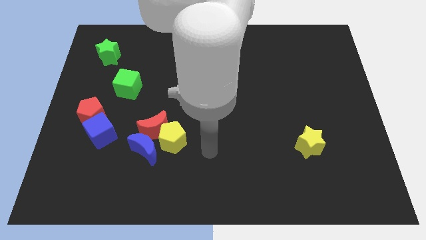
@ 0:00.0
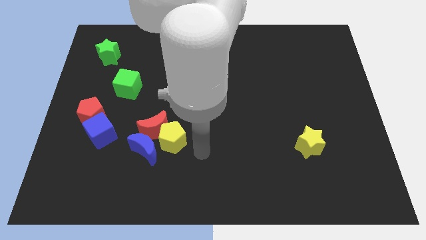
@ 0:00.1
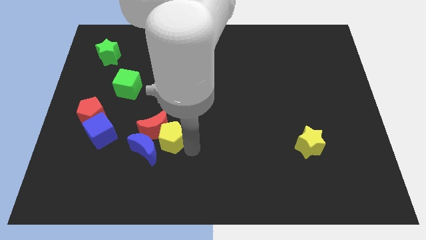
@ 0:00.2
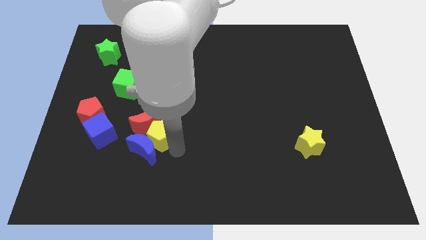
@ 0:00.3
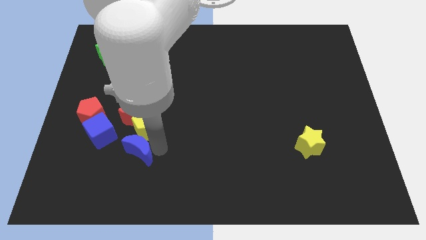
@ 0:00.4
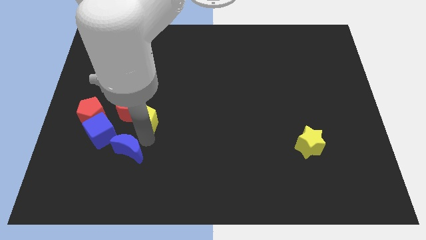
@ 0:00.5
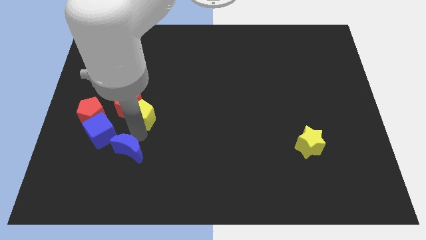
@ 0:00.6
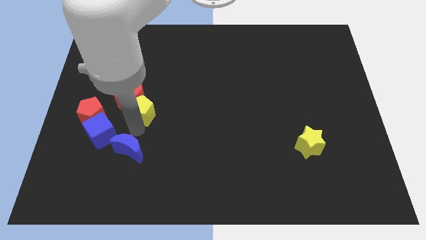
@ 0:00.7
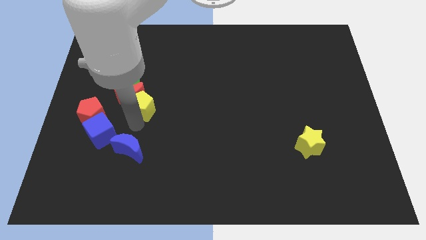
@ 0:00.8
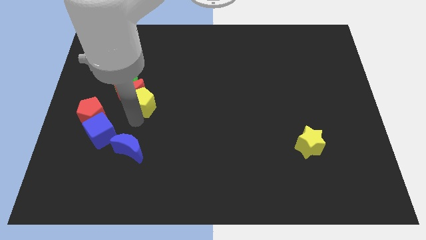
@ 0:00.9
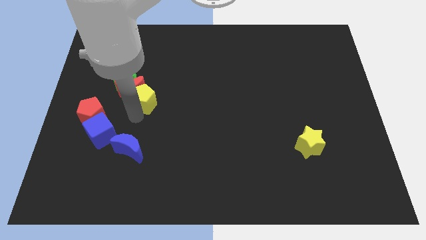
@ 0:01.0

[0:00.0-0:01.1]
pull the red moon apart from the yellow pentagon and blue moon

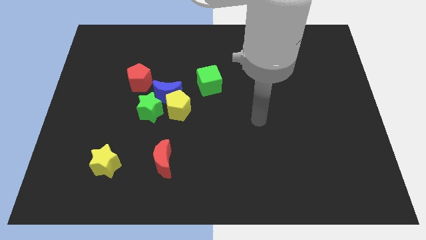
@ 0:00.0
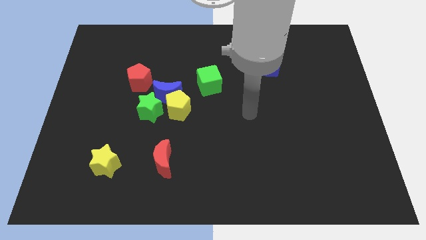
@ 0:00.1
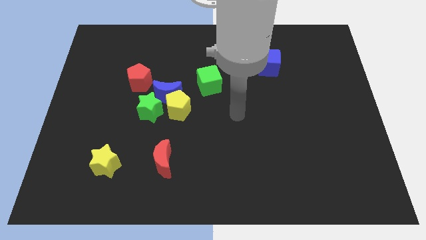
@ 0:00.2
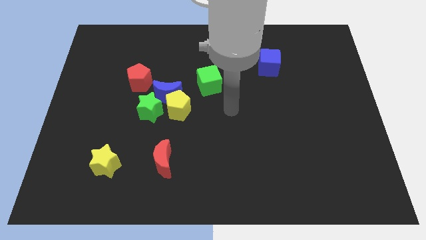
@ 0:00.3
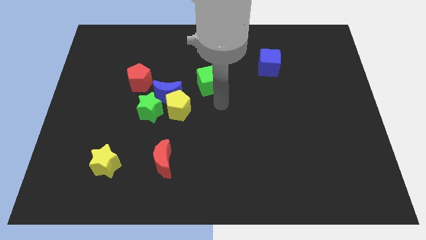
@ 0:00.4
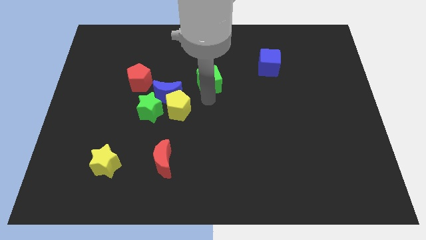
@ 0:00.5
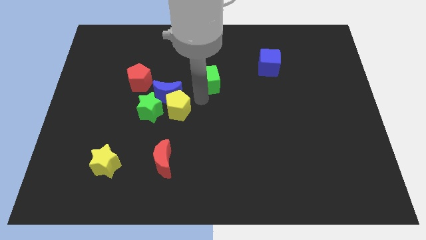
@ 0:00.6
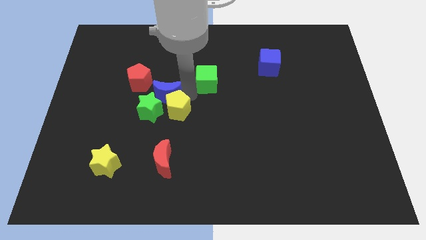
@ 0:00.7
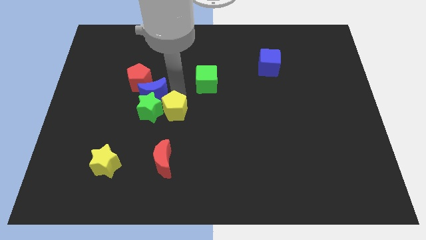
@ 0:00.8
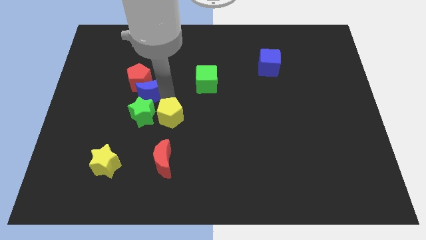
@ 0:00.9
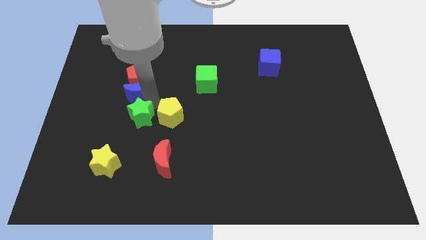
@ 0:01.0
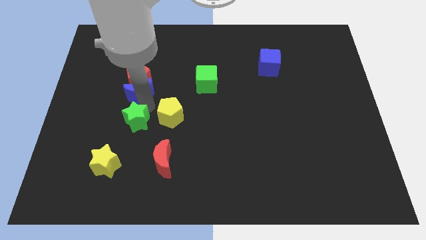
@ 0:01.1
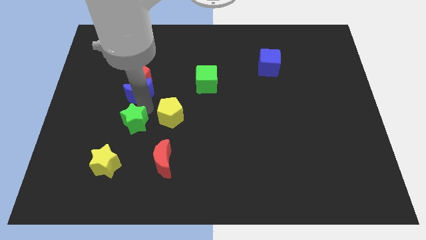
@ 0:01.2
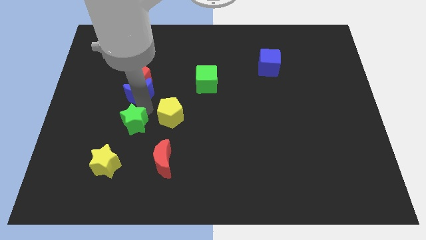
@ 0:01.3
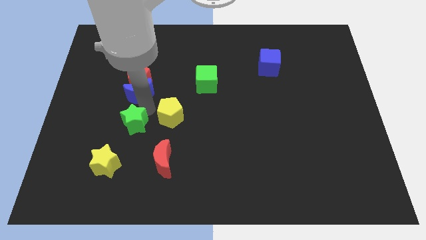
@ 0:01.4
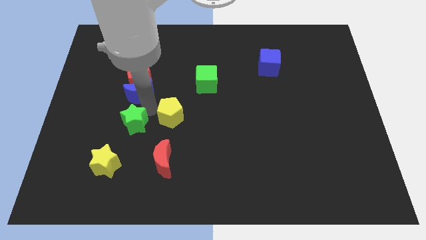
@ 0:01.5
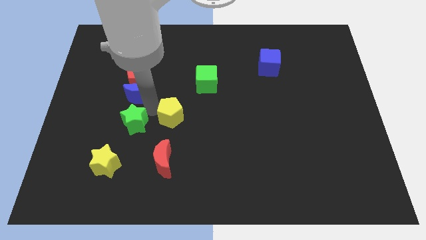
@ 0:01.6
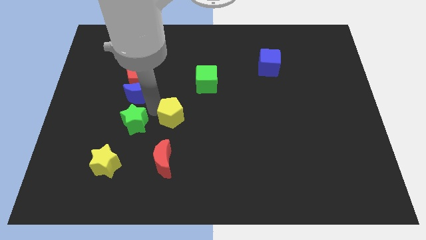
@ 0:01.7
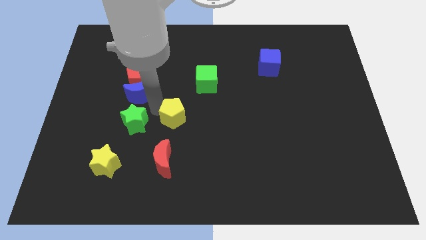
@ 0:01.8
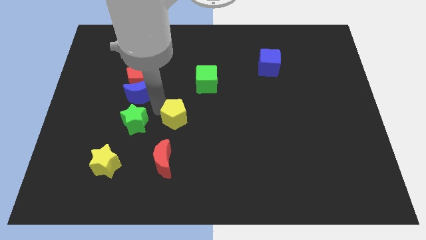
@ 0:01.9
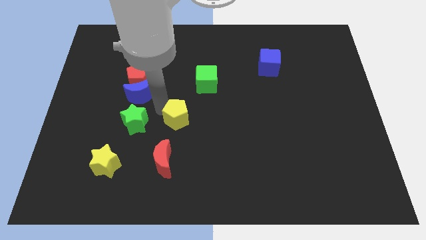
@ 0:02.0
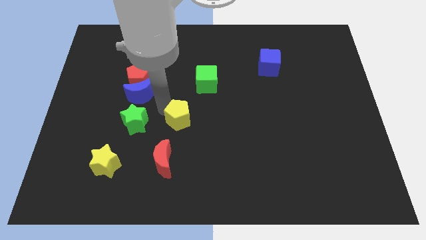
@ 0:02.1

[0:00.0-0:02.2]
separate the yellow pentagon from the blue moon and green star

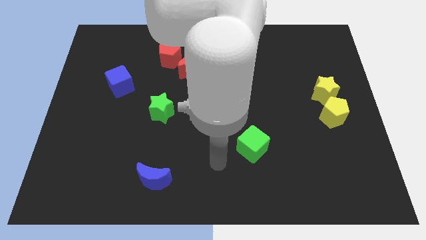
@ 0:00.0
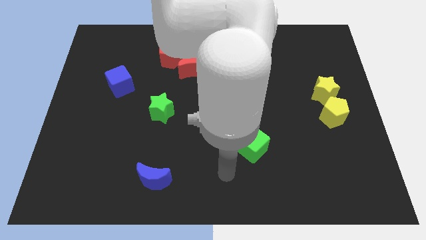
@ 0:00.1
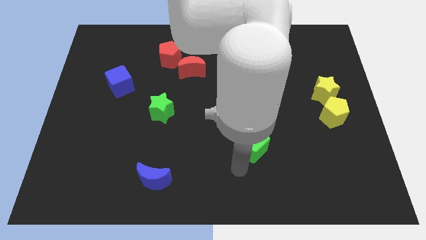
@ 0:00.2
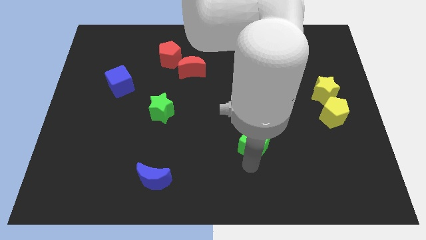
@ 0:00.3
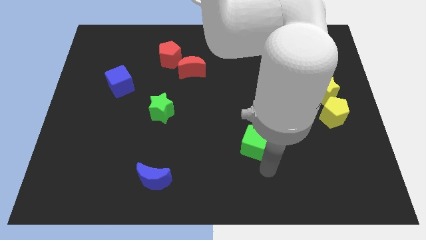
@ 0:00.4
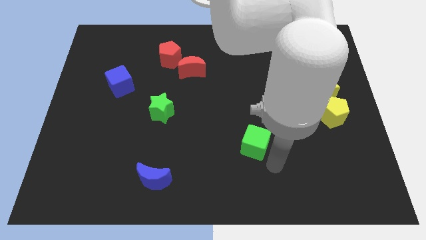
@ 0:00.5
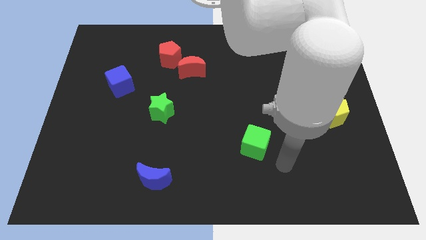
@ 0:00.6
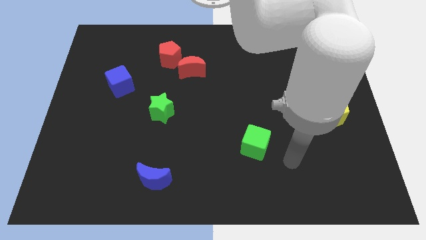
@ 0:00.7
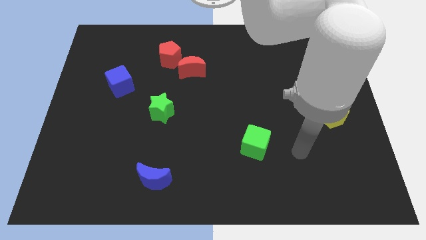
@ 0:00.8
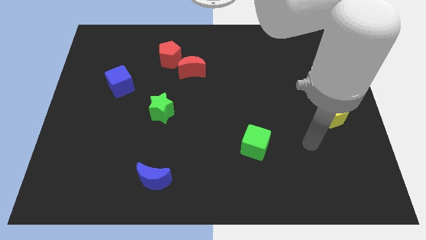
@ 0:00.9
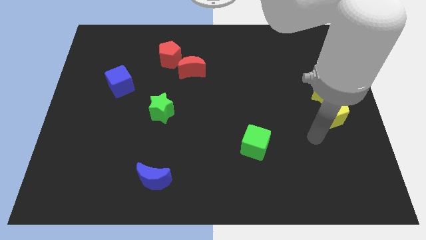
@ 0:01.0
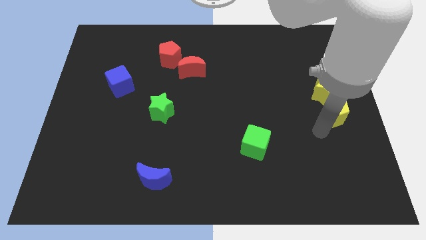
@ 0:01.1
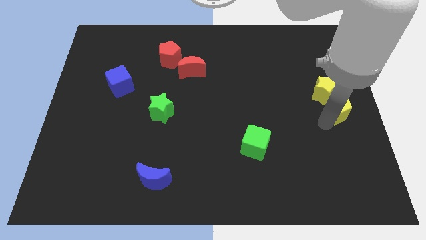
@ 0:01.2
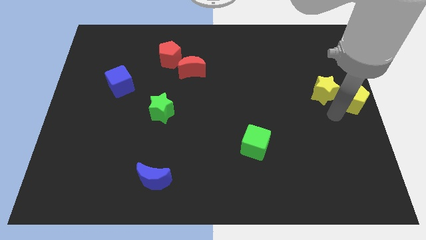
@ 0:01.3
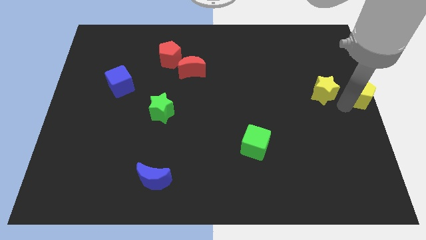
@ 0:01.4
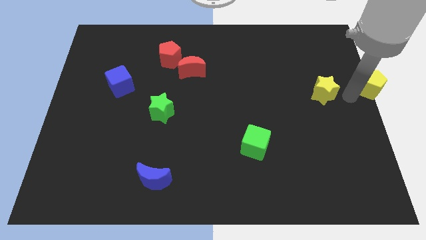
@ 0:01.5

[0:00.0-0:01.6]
separate the yellow star from the yellow pentagon

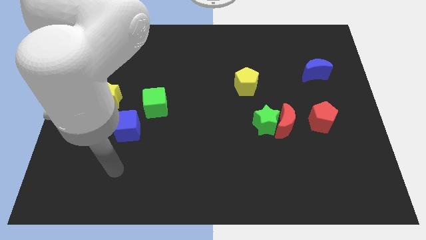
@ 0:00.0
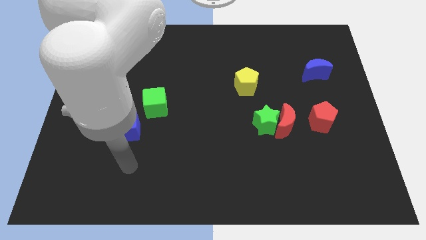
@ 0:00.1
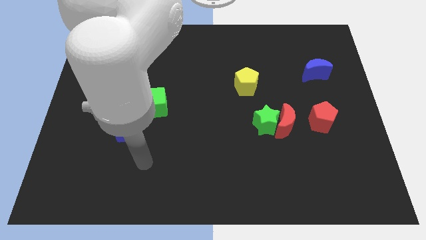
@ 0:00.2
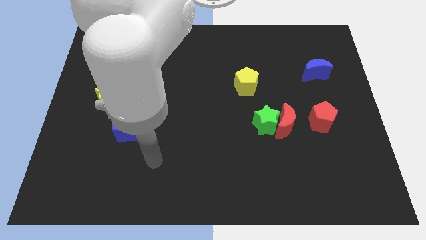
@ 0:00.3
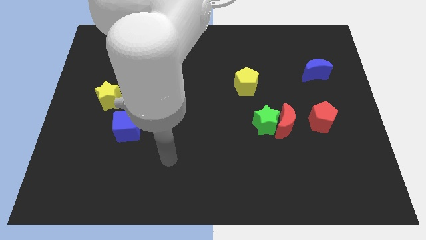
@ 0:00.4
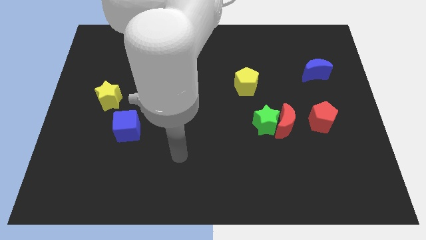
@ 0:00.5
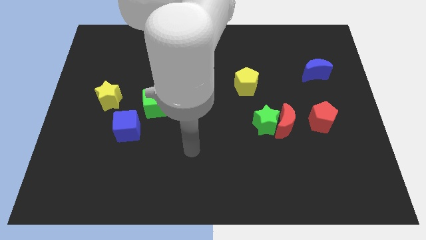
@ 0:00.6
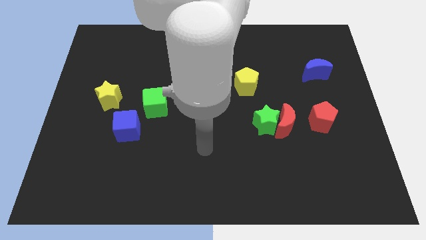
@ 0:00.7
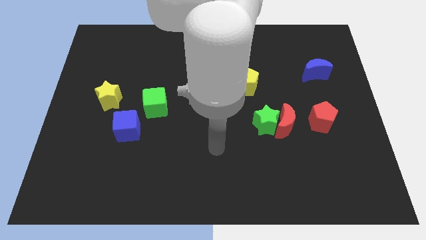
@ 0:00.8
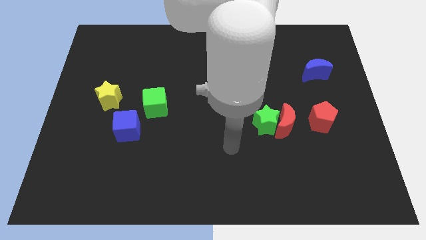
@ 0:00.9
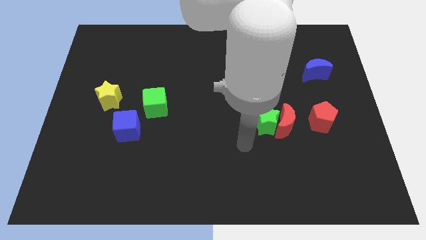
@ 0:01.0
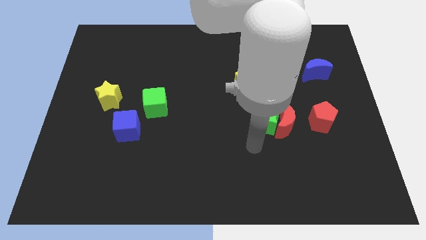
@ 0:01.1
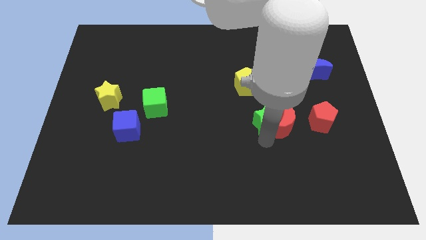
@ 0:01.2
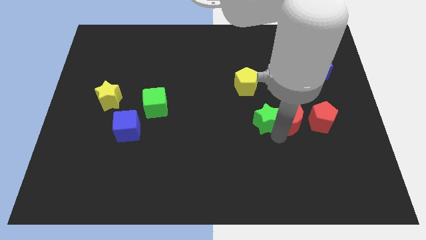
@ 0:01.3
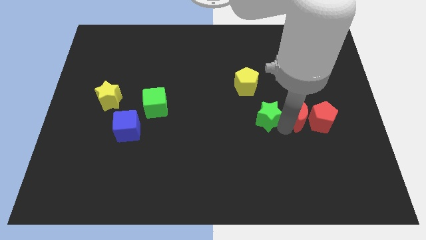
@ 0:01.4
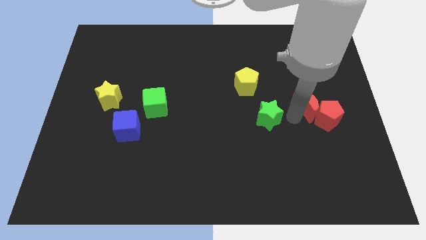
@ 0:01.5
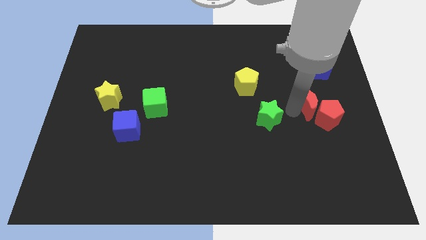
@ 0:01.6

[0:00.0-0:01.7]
separate the green star from the red moon

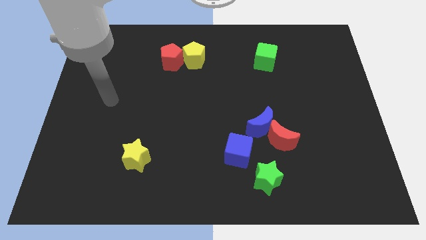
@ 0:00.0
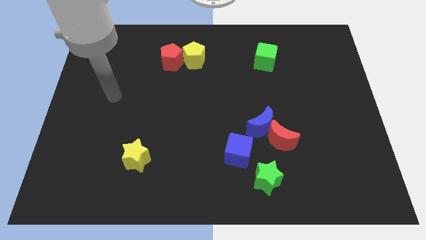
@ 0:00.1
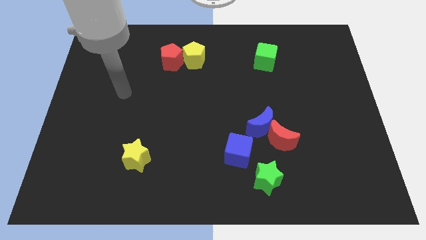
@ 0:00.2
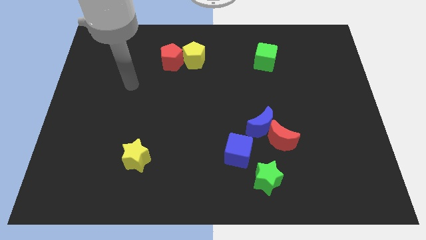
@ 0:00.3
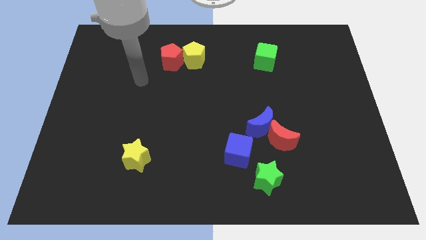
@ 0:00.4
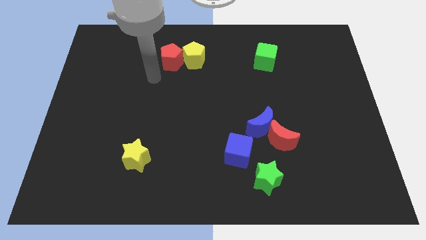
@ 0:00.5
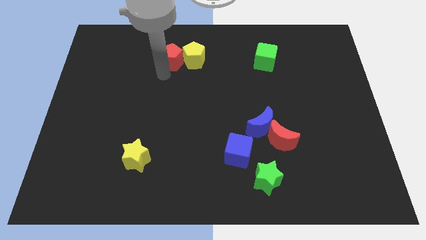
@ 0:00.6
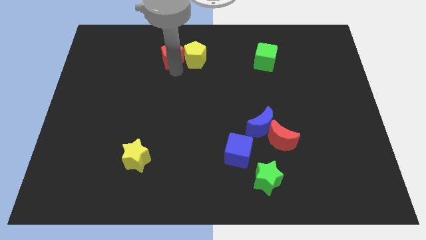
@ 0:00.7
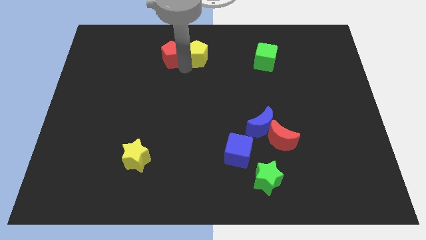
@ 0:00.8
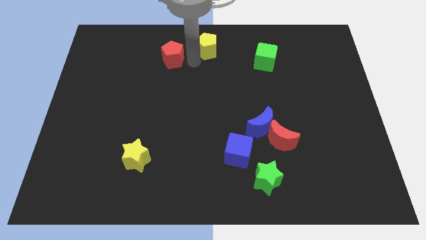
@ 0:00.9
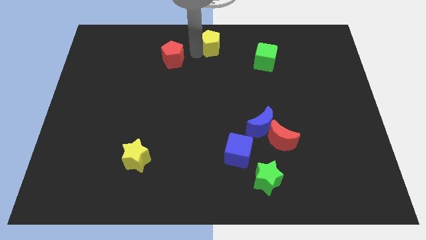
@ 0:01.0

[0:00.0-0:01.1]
move the red pentagon away from the yellow pentagon

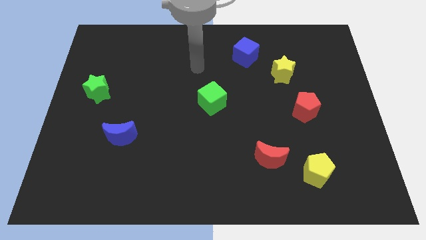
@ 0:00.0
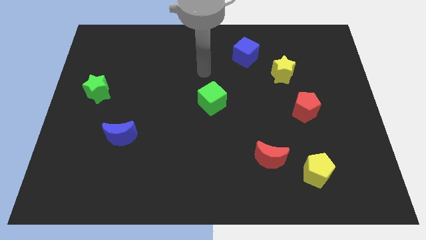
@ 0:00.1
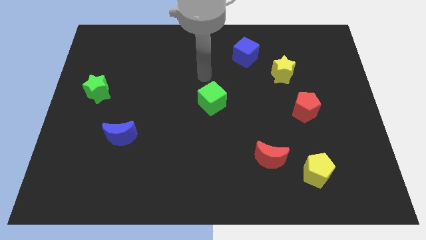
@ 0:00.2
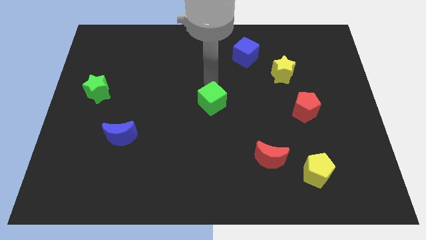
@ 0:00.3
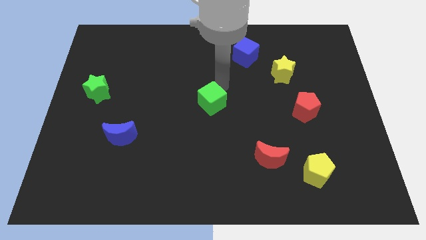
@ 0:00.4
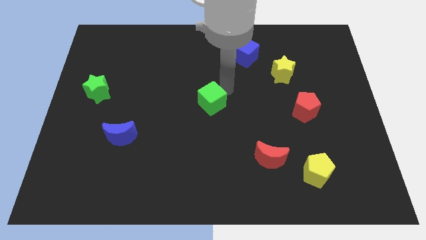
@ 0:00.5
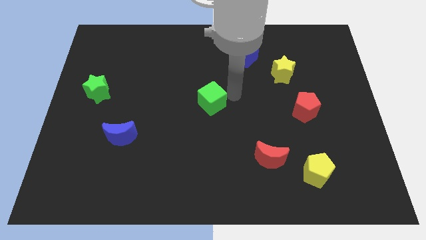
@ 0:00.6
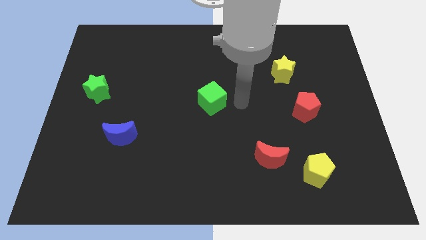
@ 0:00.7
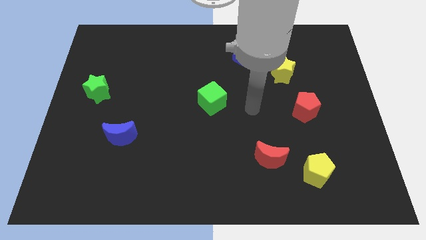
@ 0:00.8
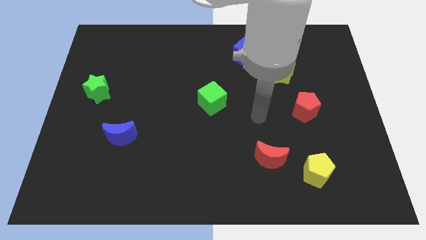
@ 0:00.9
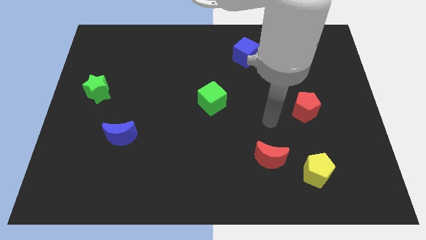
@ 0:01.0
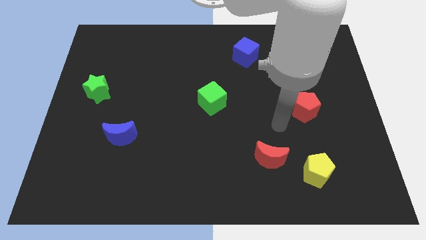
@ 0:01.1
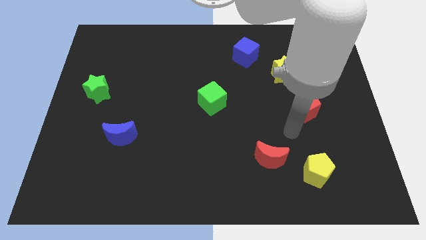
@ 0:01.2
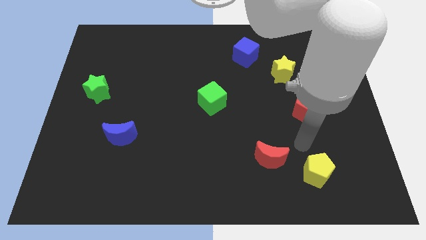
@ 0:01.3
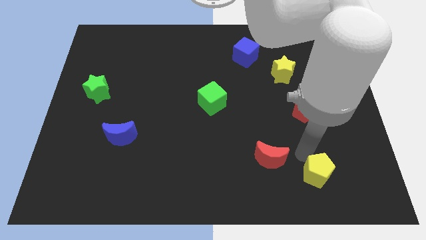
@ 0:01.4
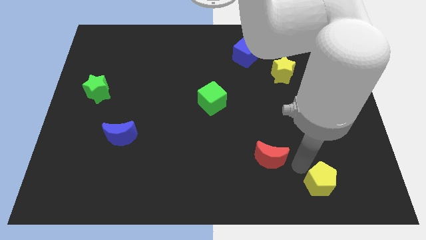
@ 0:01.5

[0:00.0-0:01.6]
separate the red moon from the yellow pentagon

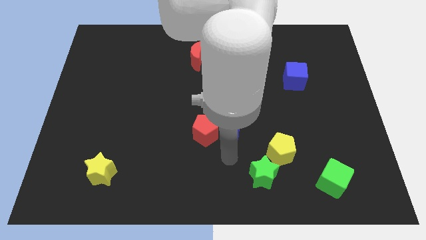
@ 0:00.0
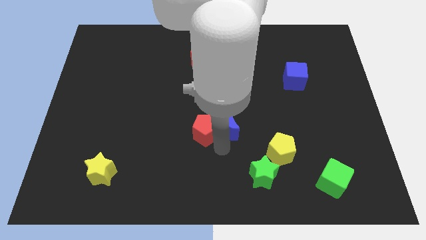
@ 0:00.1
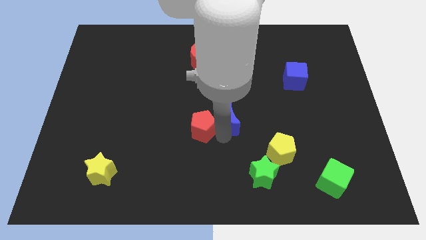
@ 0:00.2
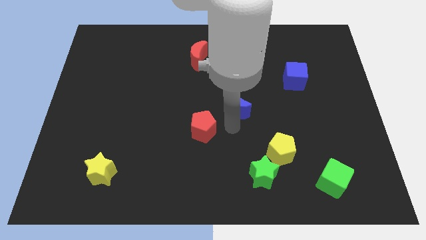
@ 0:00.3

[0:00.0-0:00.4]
move the red pentagon away from the blue moon
